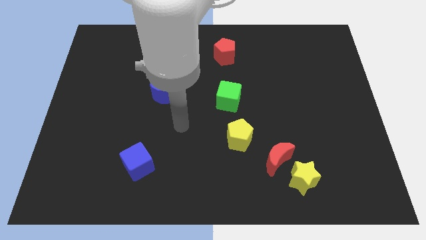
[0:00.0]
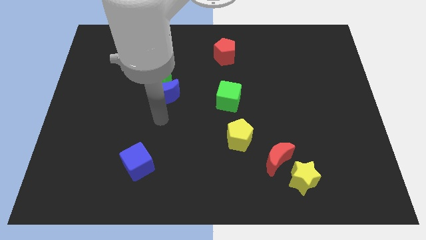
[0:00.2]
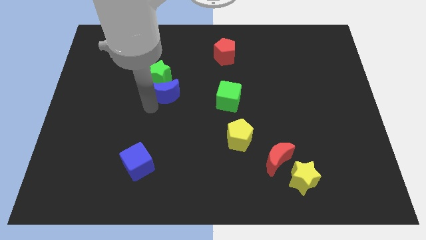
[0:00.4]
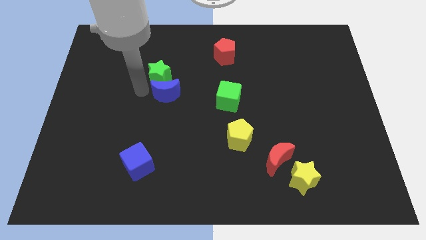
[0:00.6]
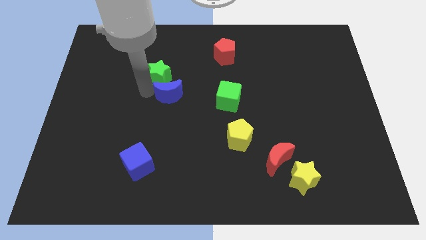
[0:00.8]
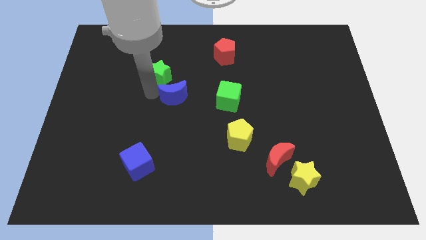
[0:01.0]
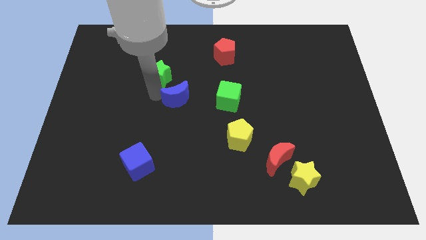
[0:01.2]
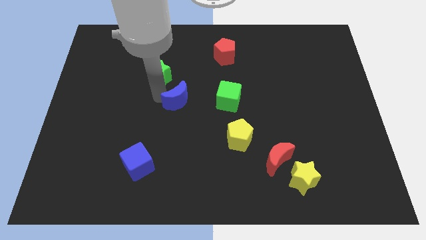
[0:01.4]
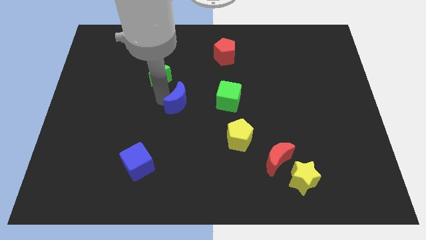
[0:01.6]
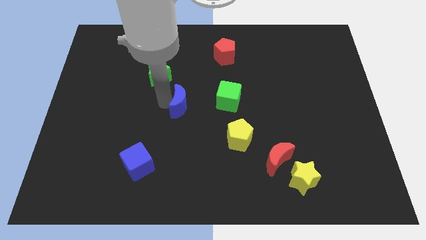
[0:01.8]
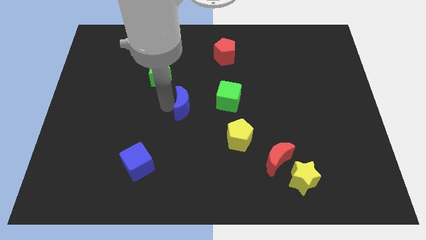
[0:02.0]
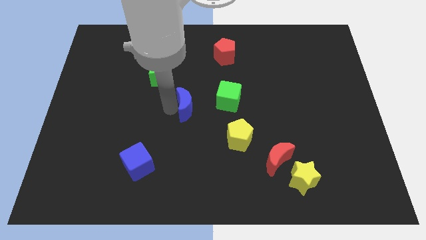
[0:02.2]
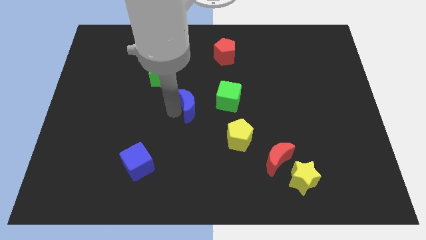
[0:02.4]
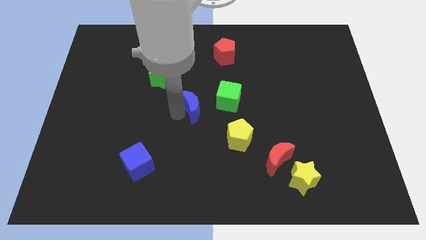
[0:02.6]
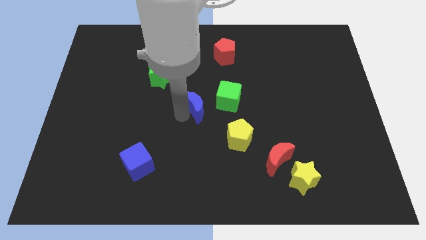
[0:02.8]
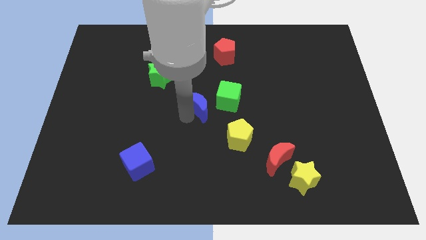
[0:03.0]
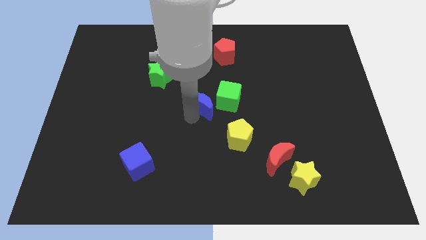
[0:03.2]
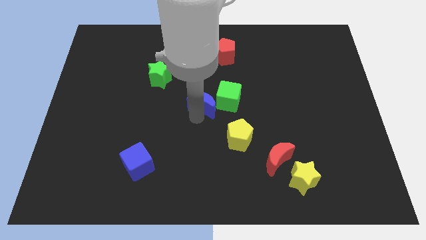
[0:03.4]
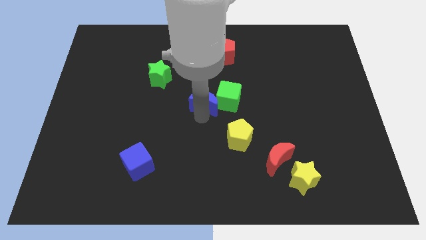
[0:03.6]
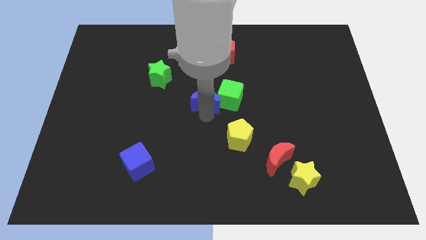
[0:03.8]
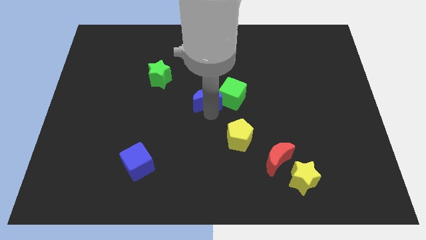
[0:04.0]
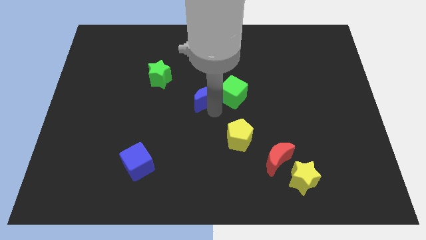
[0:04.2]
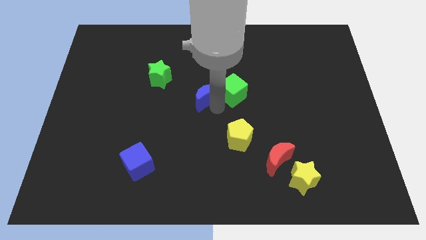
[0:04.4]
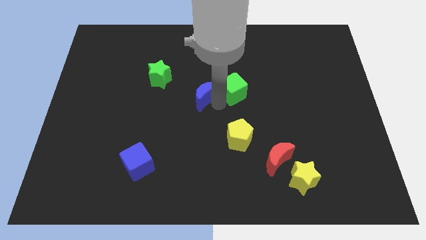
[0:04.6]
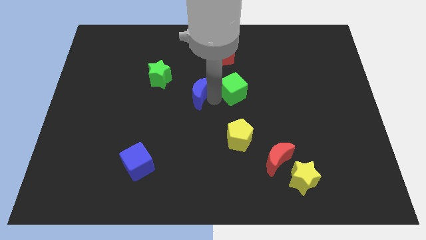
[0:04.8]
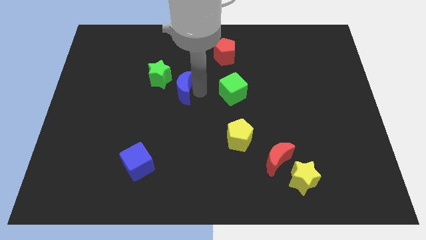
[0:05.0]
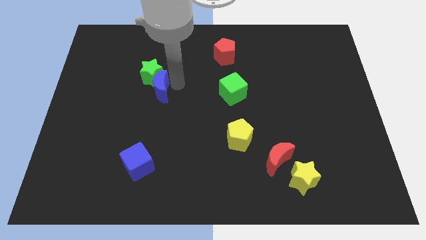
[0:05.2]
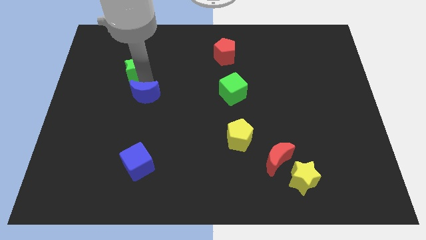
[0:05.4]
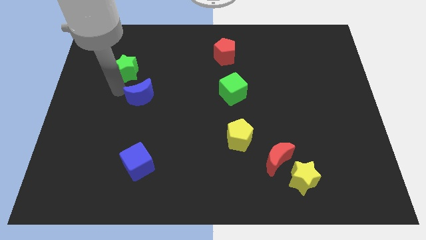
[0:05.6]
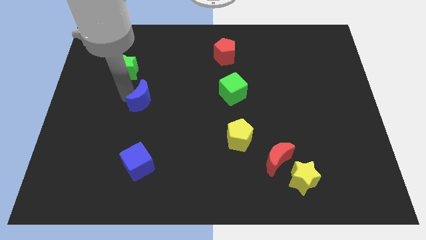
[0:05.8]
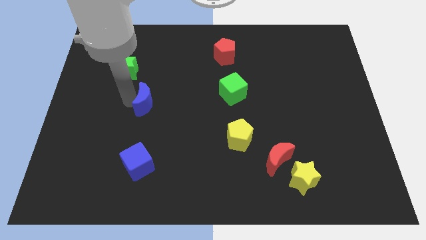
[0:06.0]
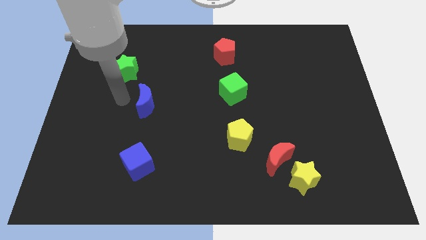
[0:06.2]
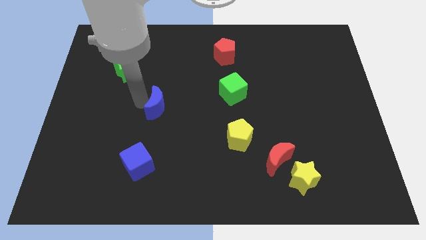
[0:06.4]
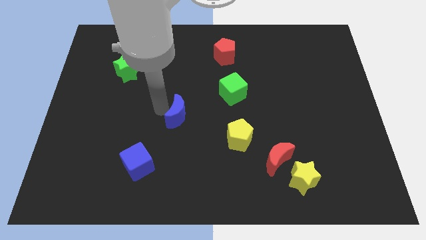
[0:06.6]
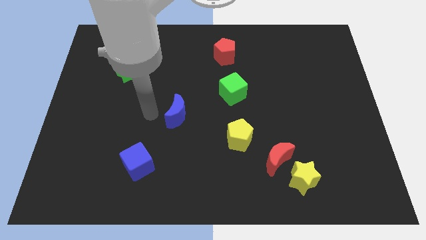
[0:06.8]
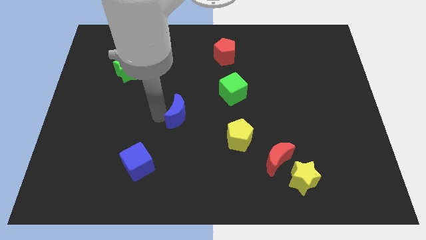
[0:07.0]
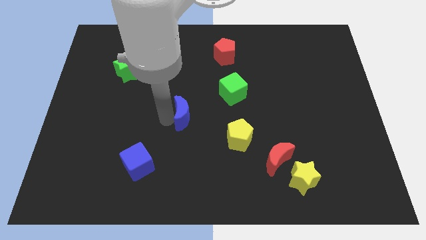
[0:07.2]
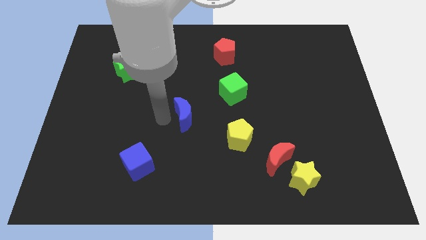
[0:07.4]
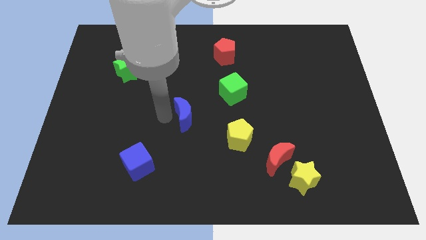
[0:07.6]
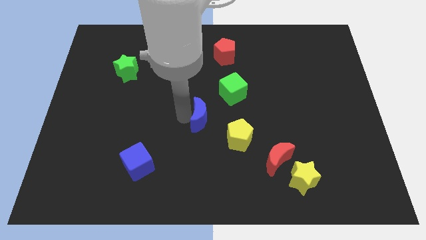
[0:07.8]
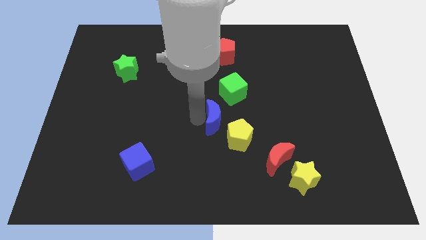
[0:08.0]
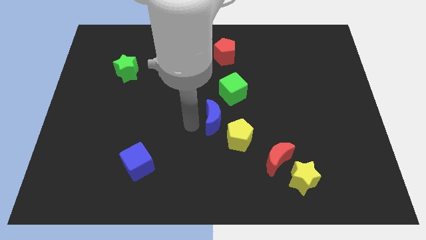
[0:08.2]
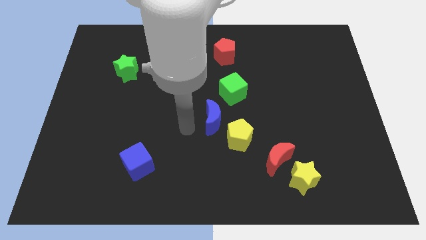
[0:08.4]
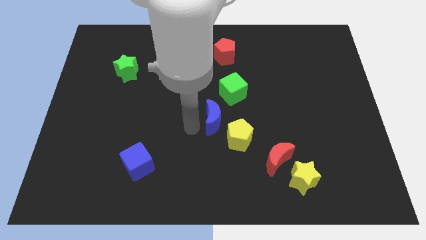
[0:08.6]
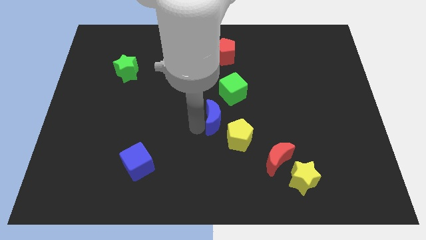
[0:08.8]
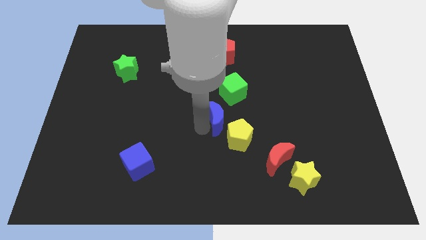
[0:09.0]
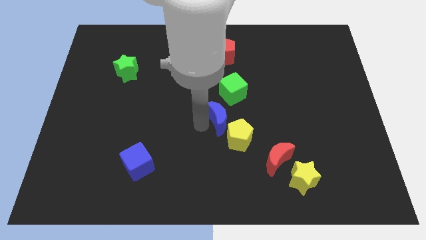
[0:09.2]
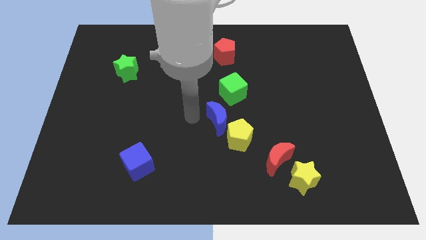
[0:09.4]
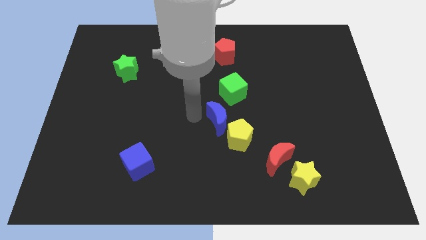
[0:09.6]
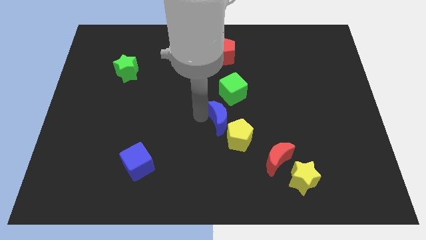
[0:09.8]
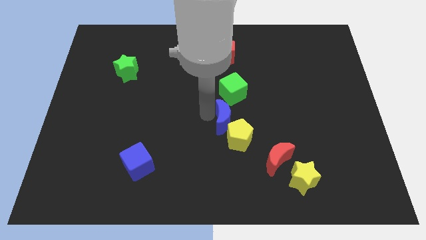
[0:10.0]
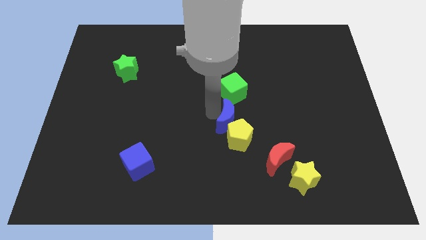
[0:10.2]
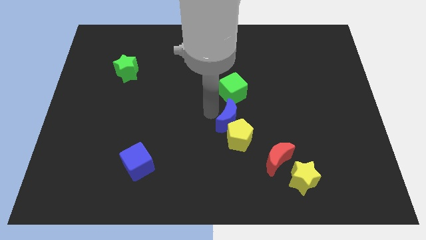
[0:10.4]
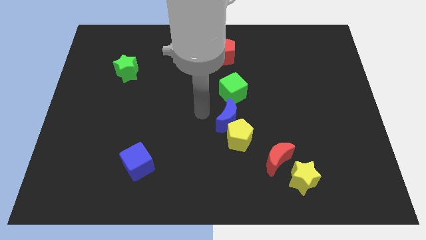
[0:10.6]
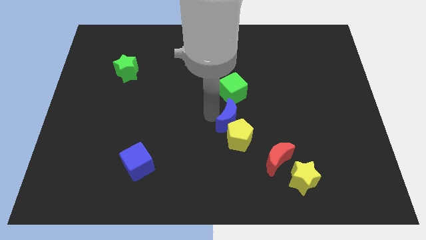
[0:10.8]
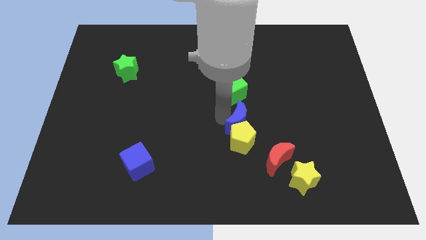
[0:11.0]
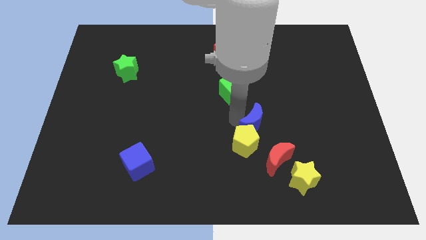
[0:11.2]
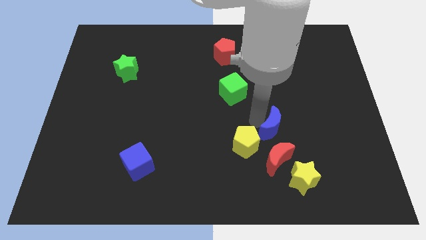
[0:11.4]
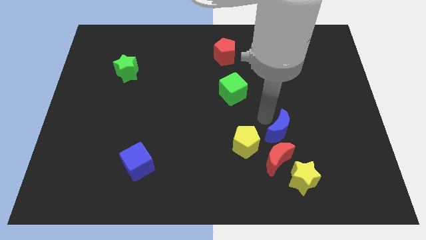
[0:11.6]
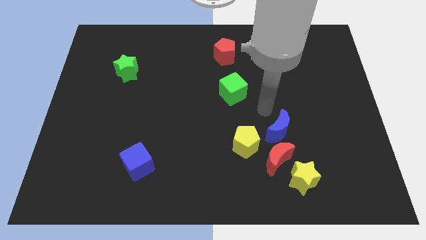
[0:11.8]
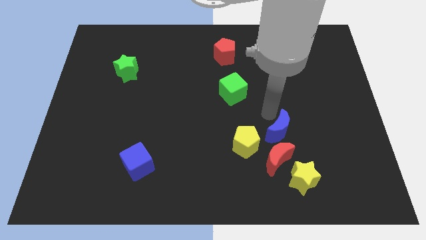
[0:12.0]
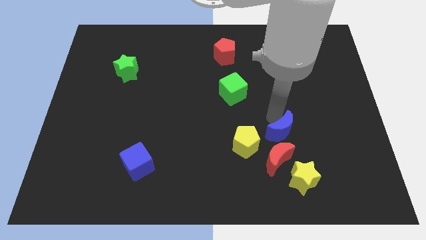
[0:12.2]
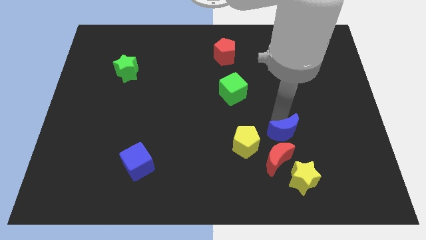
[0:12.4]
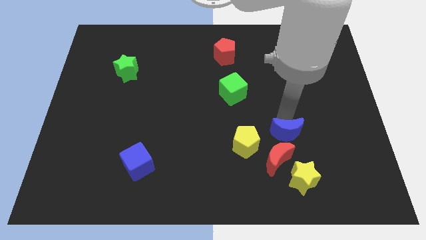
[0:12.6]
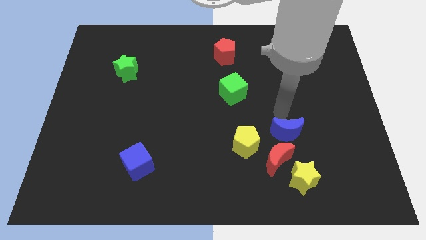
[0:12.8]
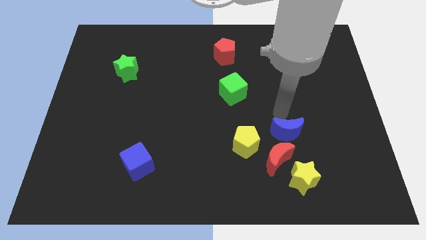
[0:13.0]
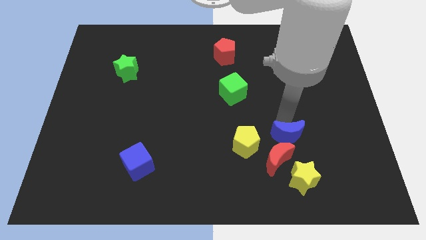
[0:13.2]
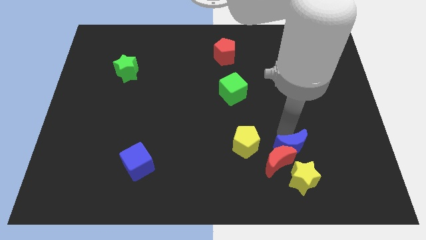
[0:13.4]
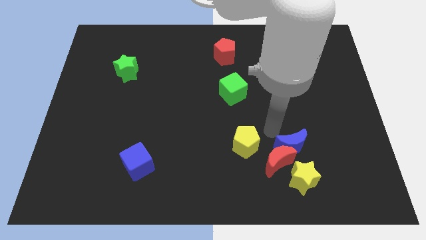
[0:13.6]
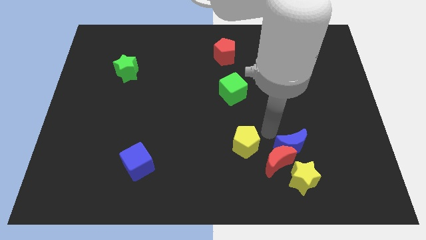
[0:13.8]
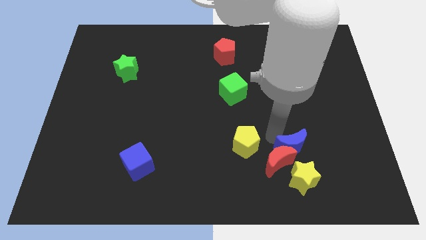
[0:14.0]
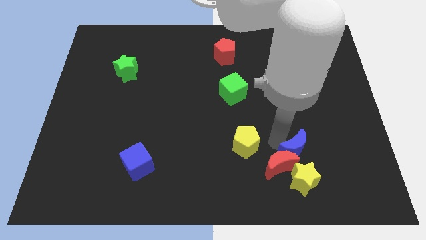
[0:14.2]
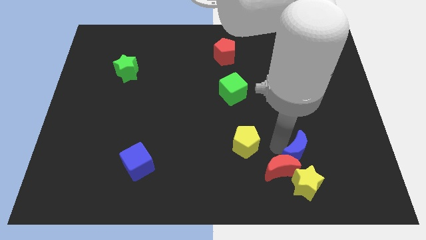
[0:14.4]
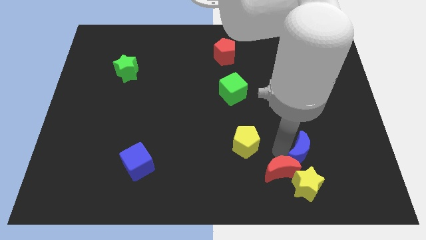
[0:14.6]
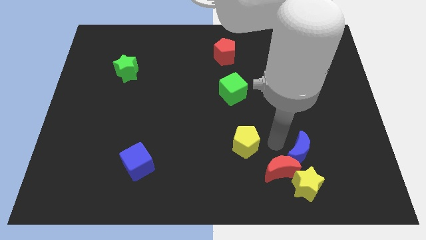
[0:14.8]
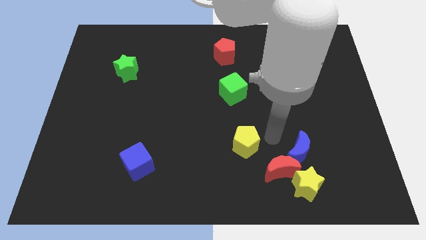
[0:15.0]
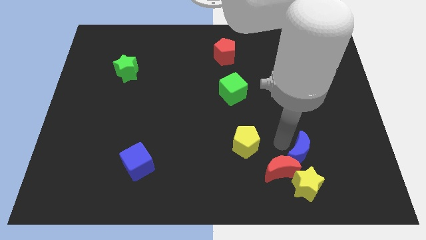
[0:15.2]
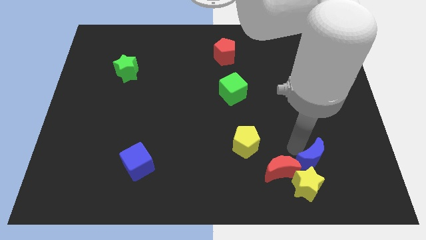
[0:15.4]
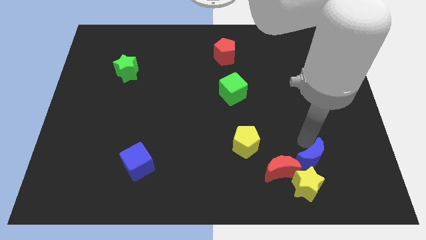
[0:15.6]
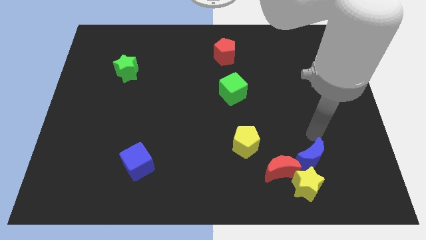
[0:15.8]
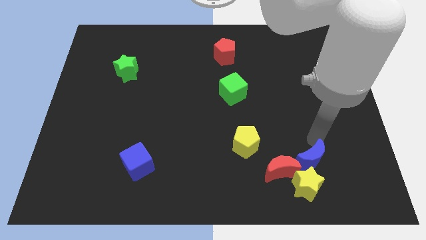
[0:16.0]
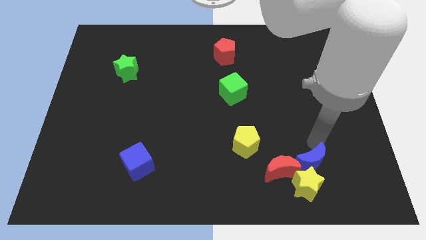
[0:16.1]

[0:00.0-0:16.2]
put the blue moon towards the yellow star
